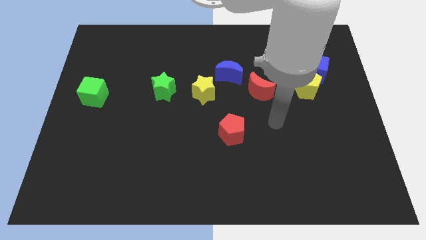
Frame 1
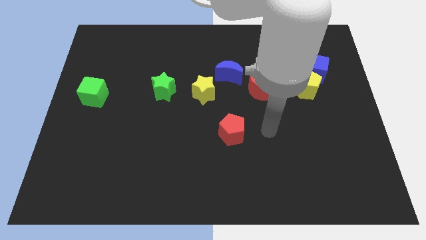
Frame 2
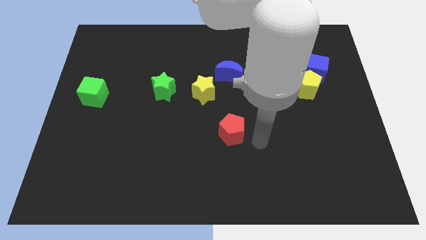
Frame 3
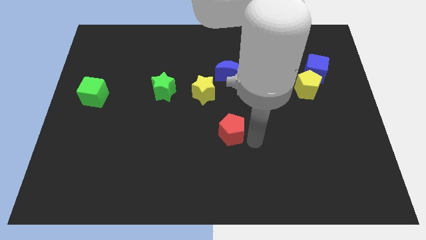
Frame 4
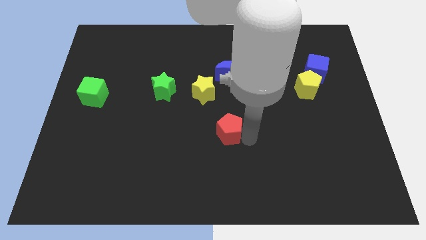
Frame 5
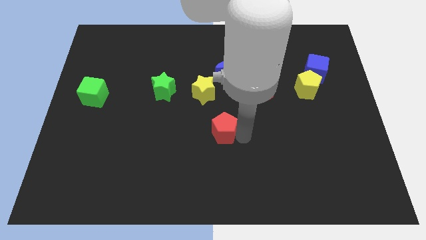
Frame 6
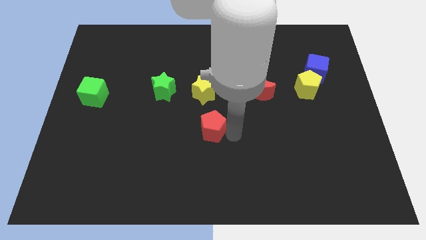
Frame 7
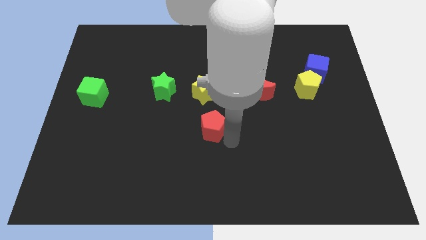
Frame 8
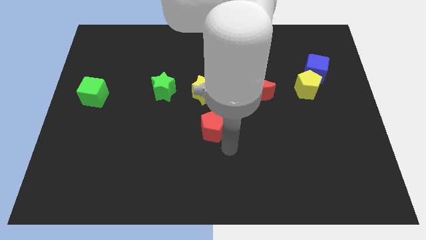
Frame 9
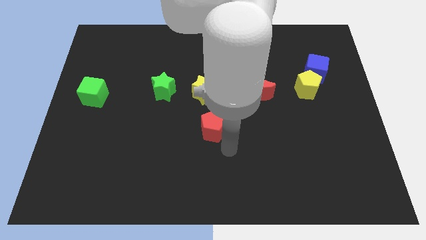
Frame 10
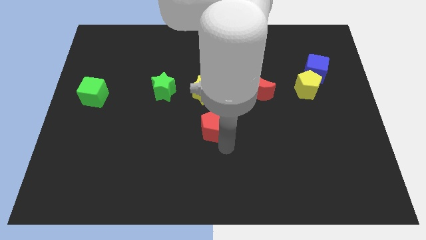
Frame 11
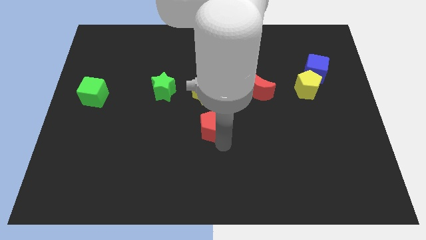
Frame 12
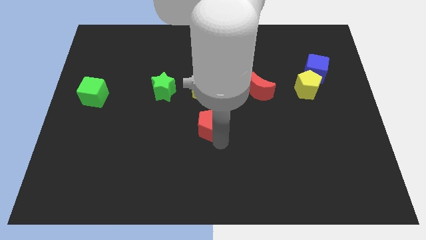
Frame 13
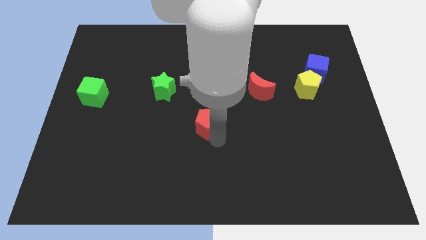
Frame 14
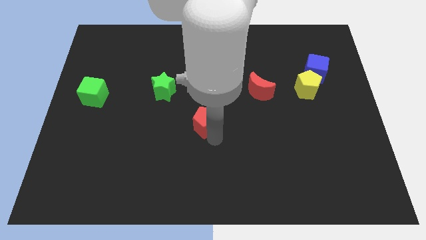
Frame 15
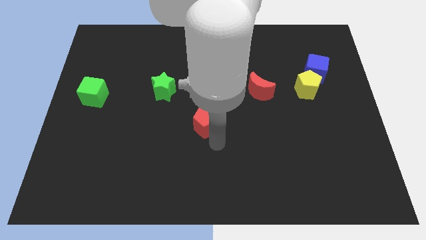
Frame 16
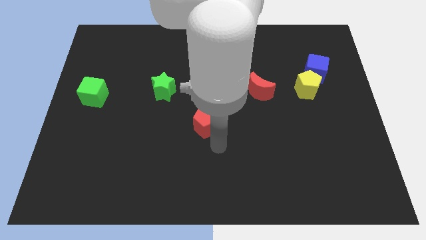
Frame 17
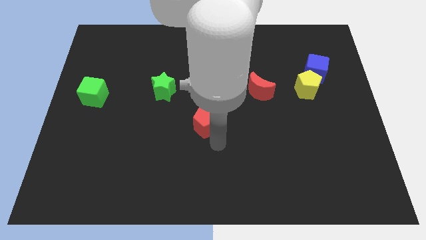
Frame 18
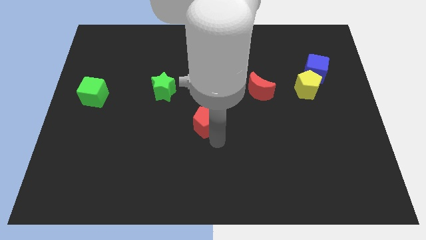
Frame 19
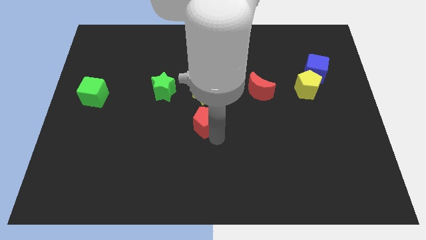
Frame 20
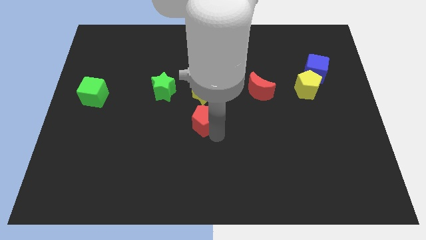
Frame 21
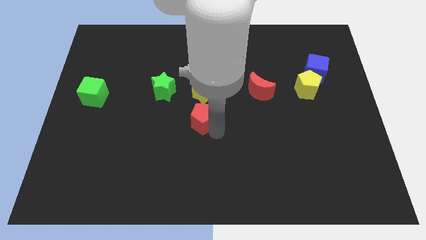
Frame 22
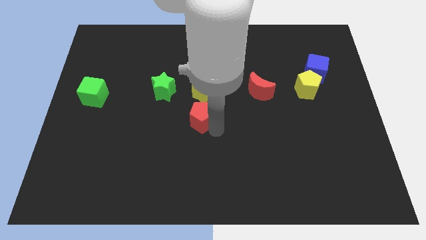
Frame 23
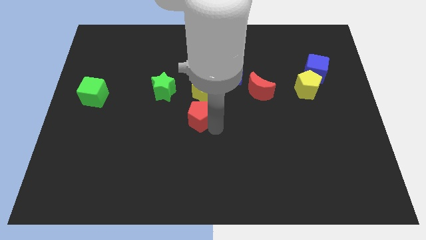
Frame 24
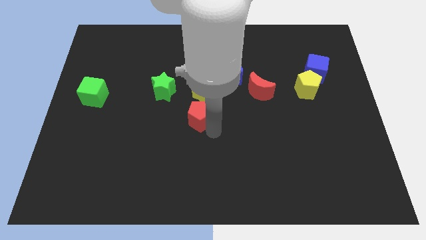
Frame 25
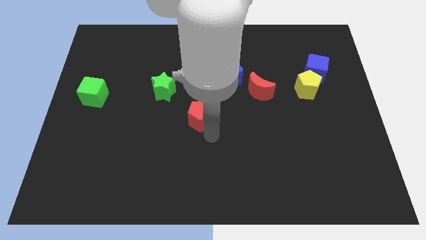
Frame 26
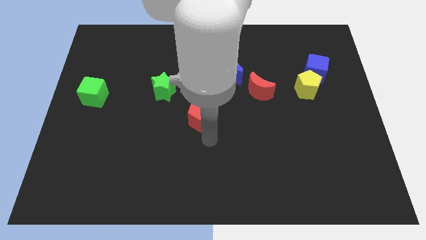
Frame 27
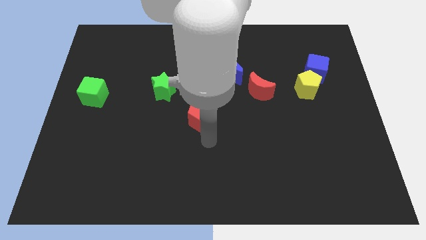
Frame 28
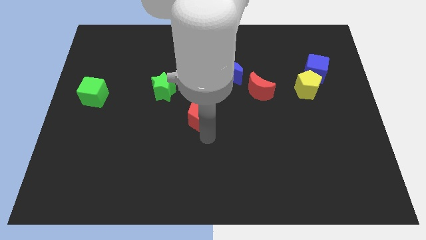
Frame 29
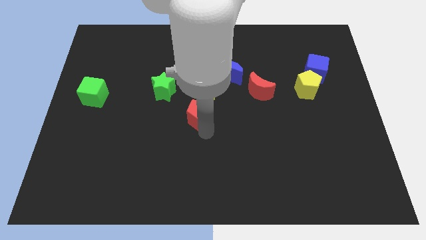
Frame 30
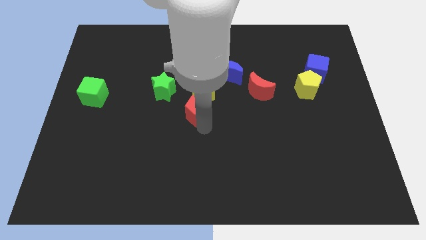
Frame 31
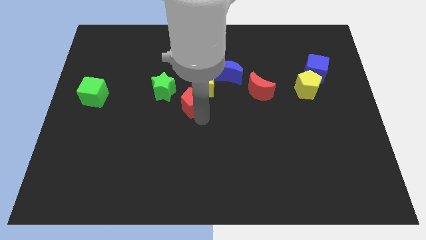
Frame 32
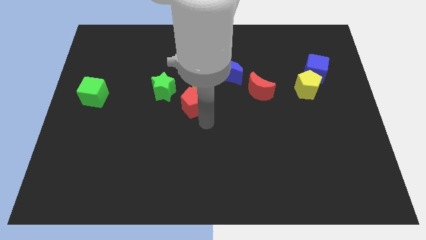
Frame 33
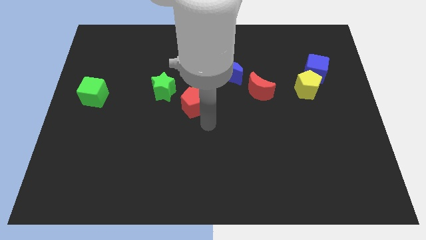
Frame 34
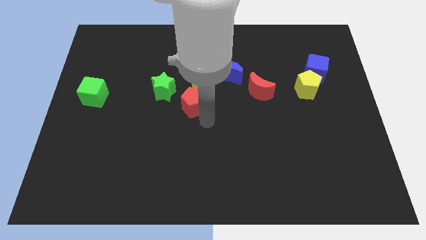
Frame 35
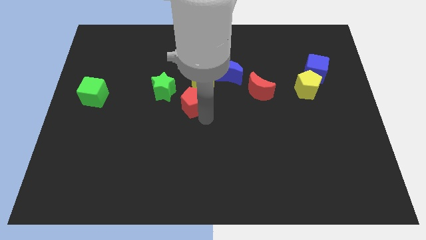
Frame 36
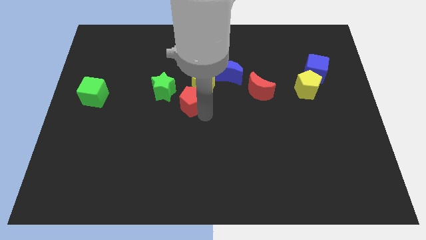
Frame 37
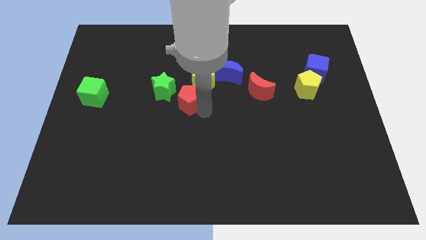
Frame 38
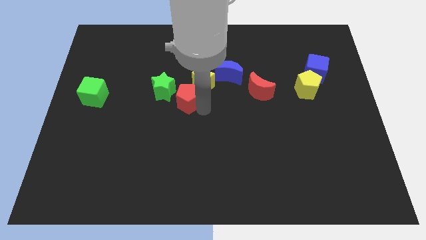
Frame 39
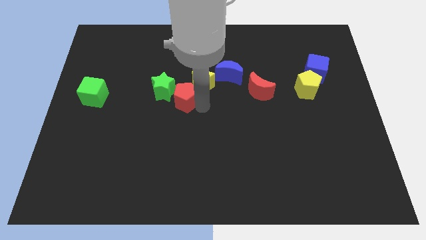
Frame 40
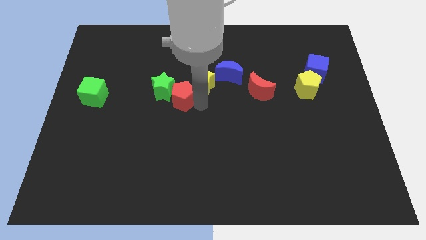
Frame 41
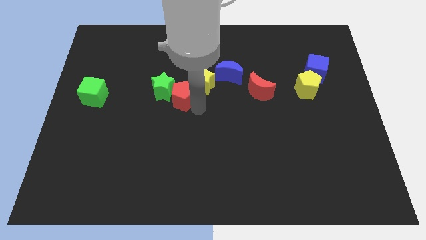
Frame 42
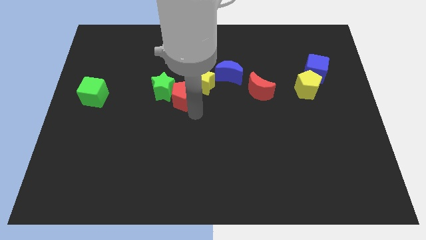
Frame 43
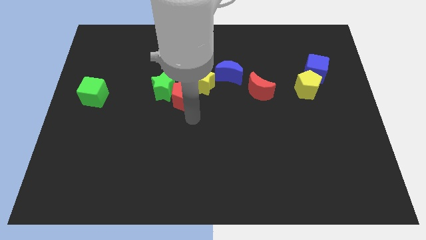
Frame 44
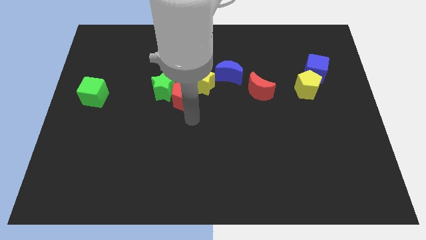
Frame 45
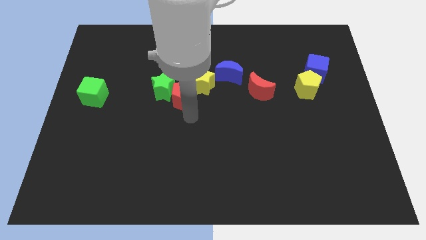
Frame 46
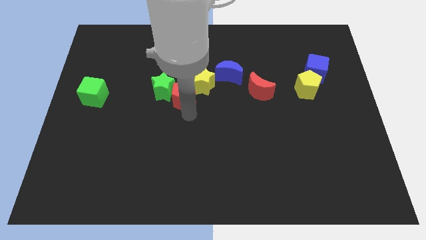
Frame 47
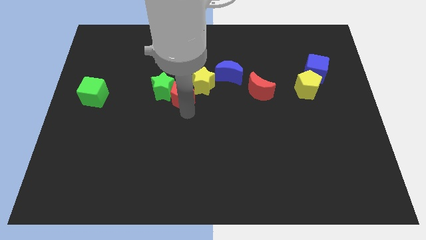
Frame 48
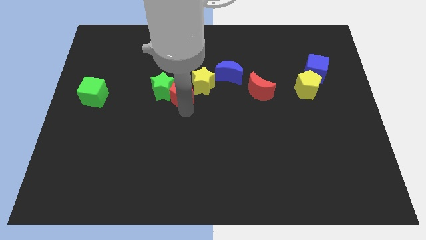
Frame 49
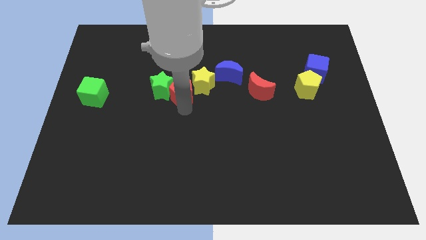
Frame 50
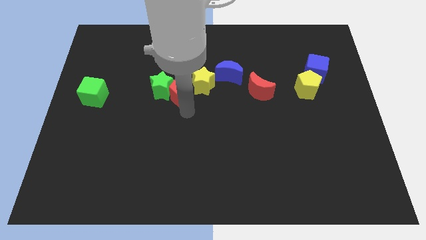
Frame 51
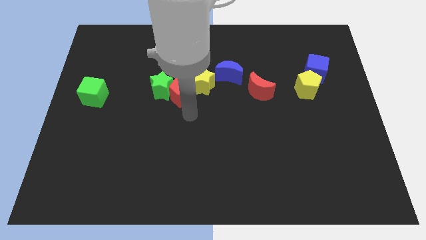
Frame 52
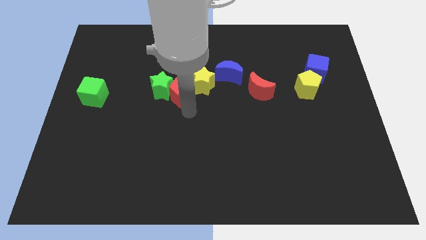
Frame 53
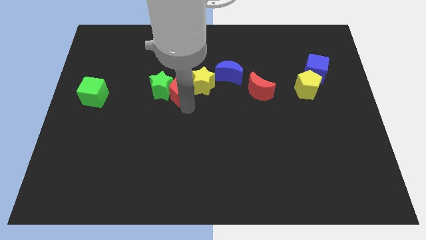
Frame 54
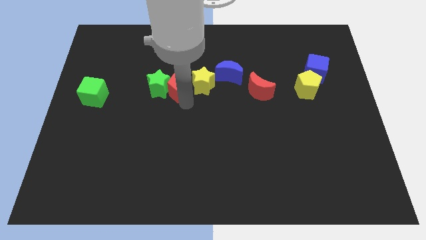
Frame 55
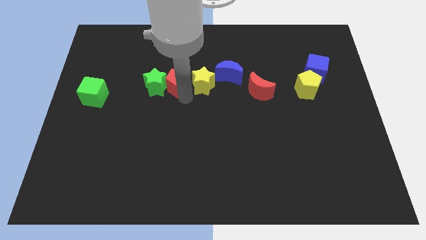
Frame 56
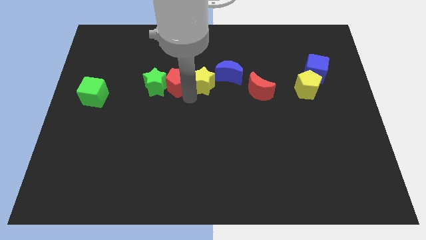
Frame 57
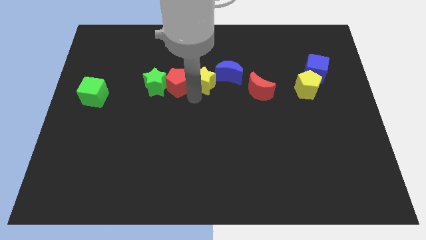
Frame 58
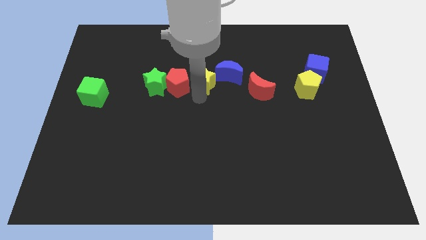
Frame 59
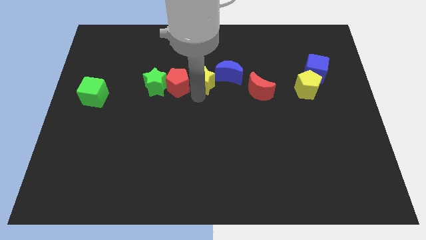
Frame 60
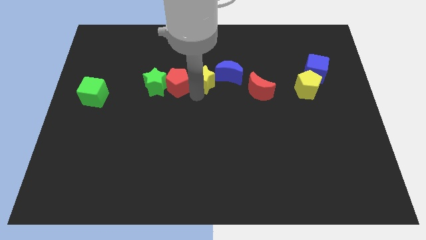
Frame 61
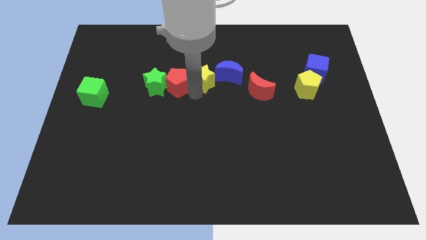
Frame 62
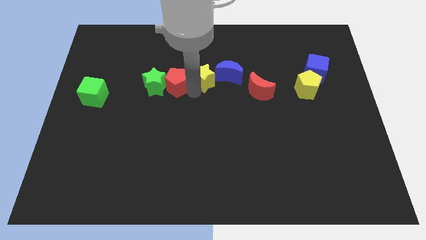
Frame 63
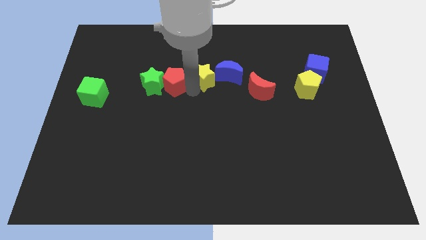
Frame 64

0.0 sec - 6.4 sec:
move the red pentagon upwards and to the left diagonally

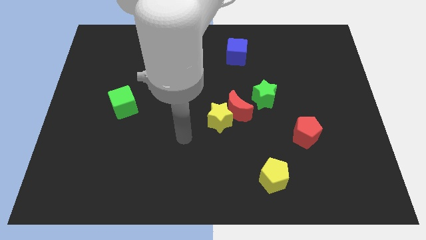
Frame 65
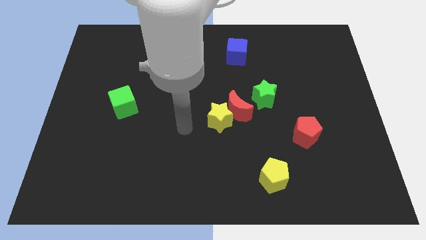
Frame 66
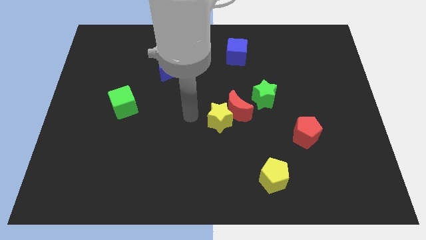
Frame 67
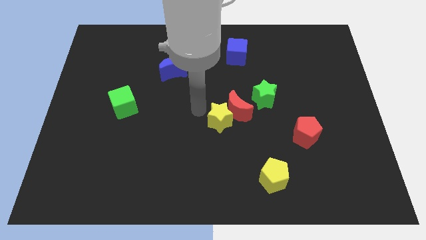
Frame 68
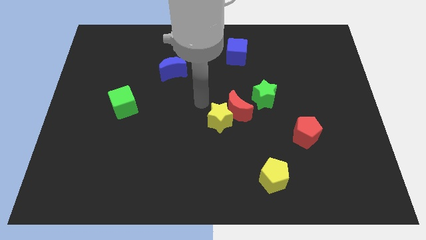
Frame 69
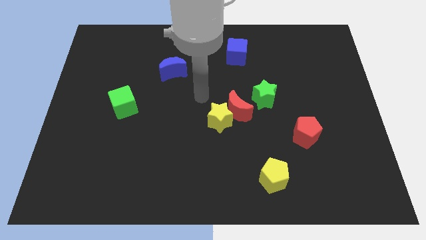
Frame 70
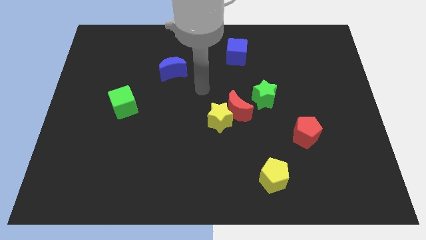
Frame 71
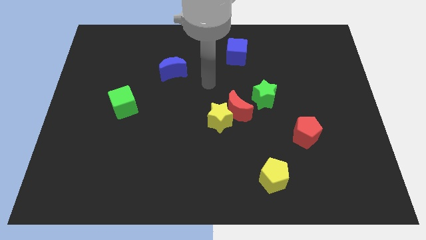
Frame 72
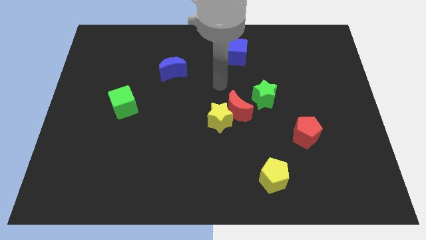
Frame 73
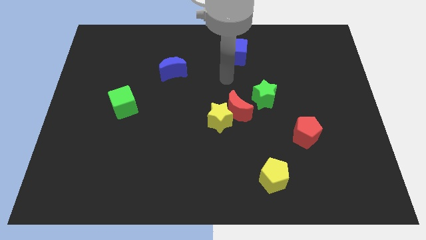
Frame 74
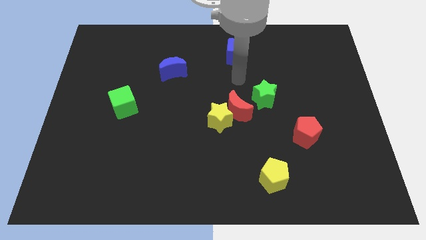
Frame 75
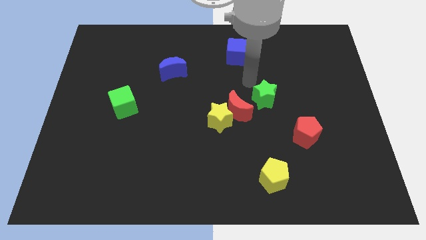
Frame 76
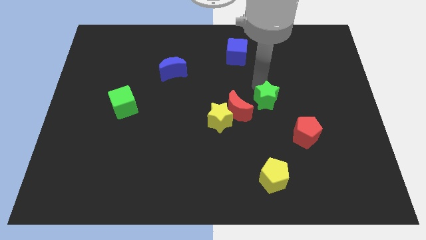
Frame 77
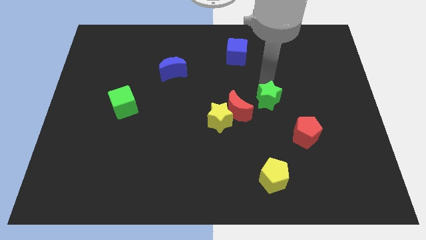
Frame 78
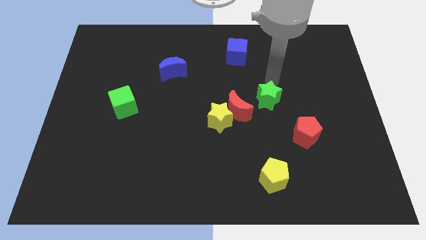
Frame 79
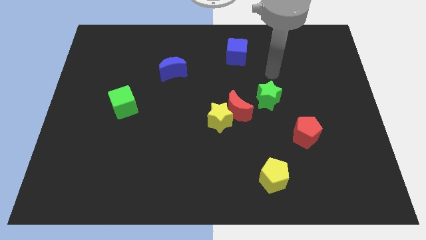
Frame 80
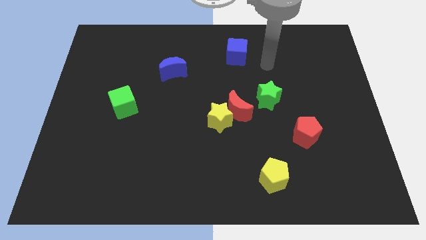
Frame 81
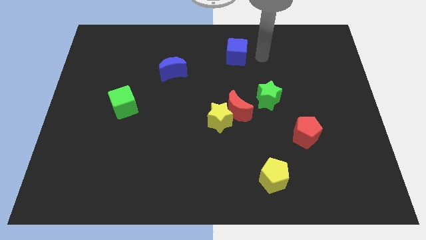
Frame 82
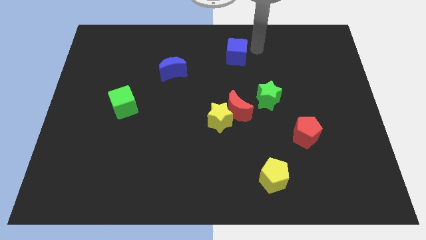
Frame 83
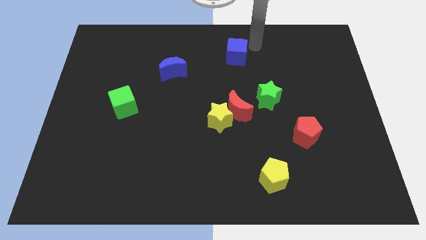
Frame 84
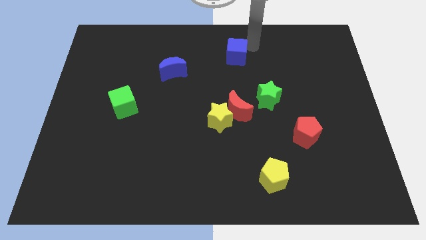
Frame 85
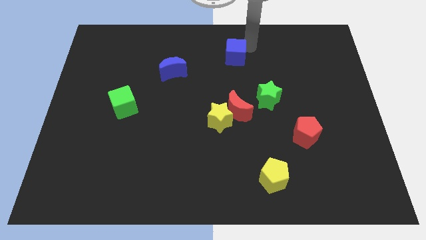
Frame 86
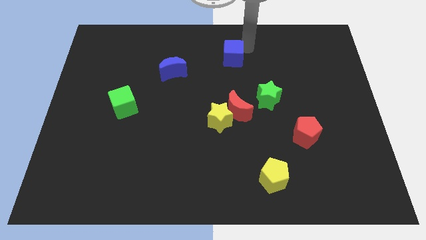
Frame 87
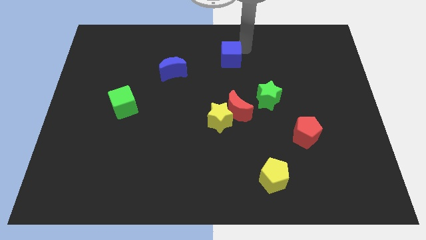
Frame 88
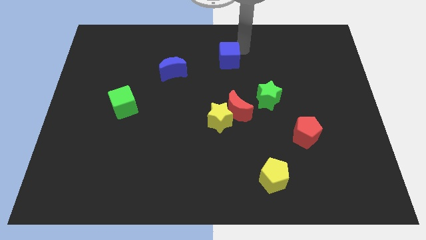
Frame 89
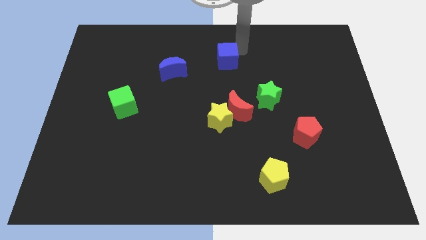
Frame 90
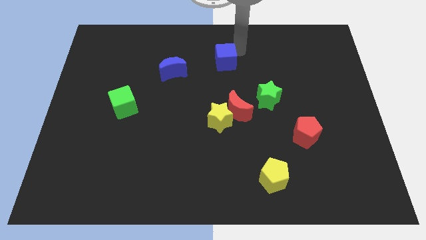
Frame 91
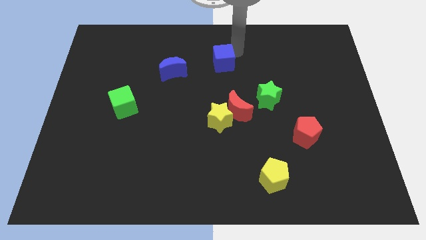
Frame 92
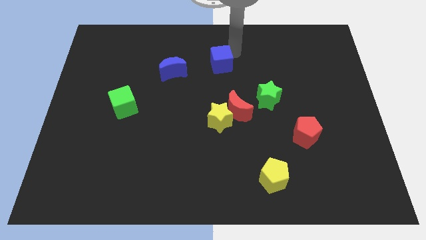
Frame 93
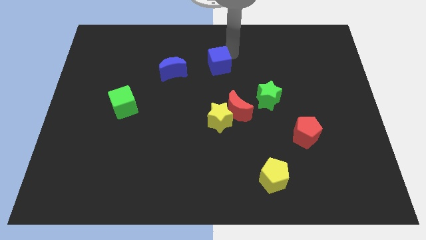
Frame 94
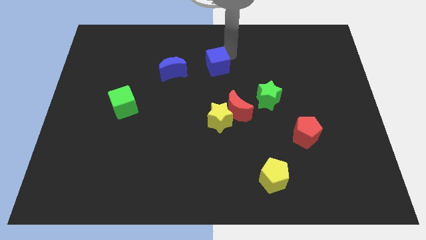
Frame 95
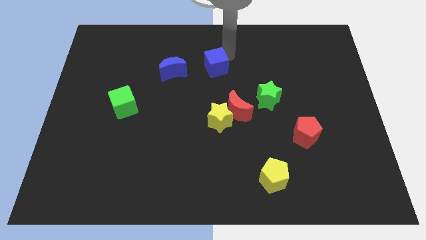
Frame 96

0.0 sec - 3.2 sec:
slide the blue cube downwards and then left a little
